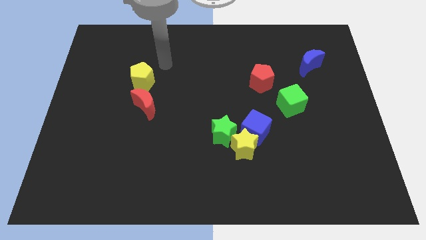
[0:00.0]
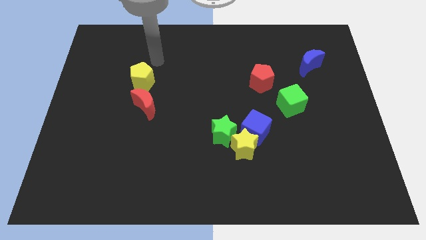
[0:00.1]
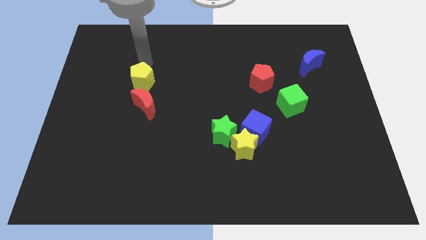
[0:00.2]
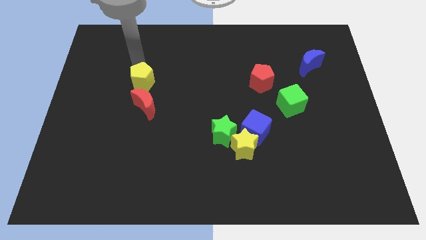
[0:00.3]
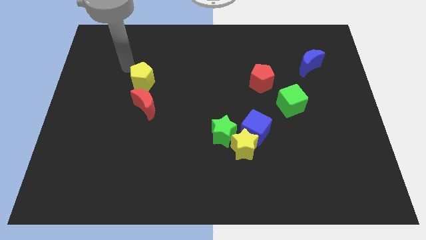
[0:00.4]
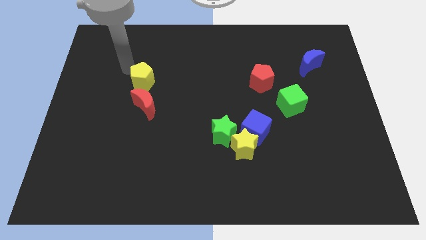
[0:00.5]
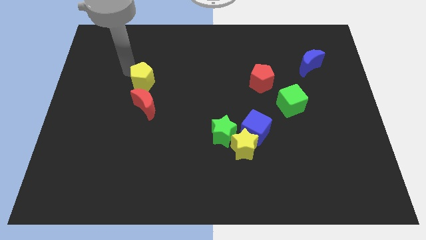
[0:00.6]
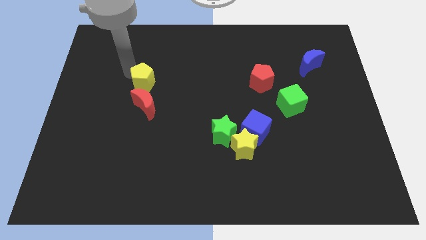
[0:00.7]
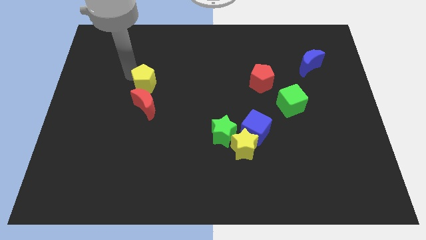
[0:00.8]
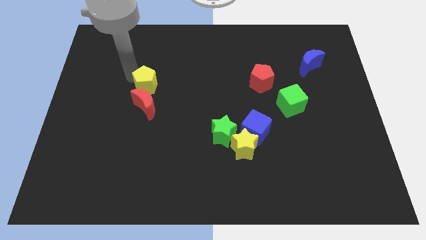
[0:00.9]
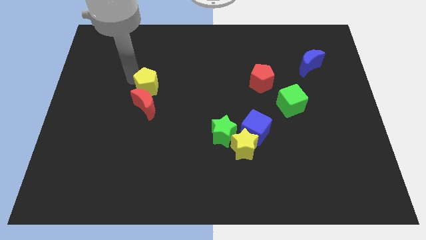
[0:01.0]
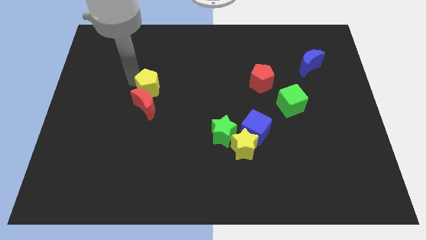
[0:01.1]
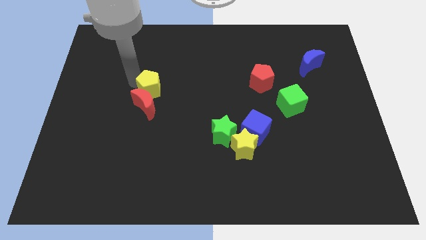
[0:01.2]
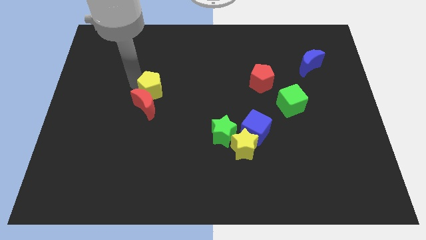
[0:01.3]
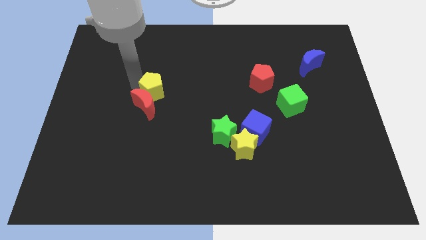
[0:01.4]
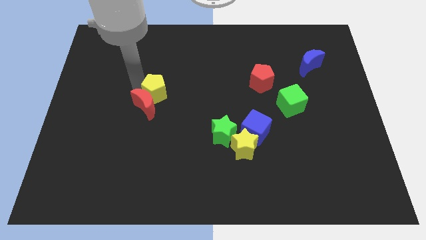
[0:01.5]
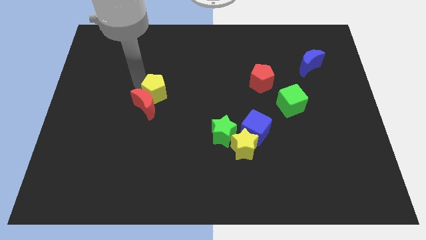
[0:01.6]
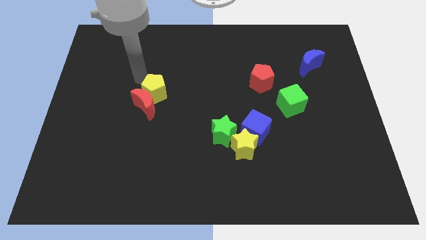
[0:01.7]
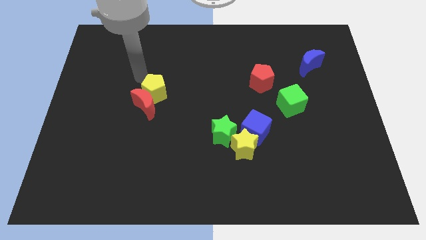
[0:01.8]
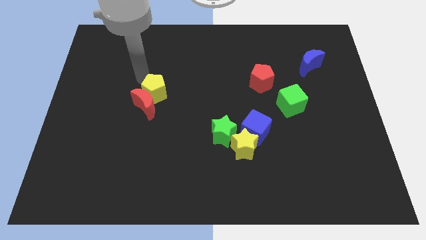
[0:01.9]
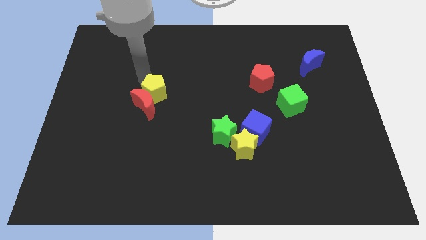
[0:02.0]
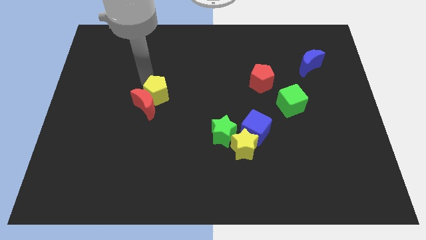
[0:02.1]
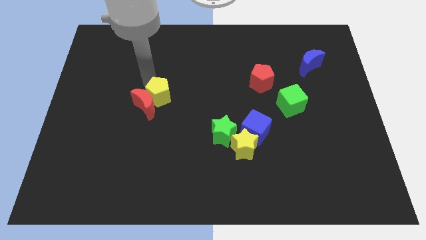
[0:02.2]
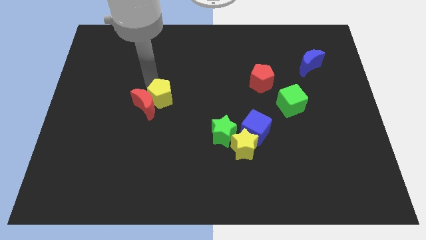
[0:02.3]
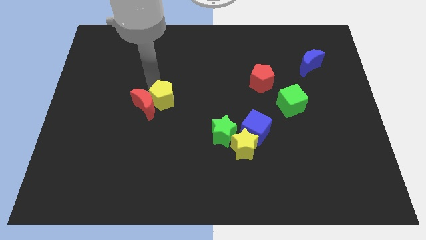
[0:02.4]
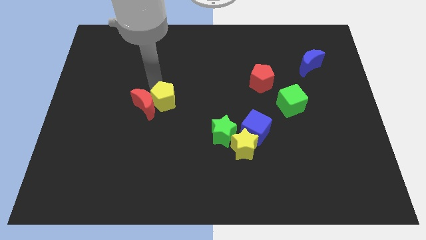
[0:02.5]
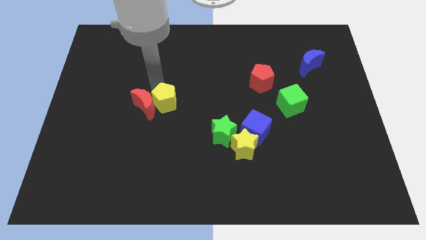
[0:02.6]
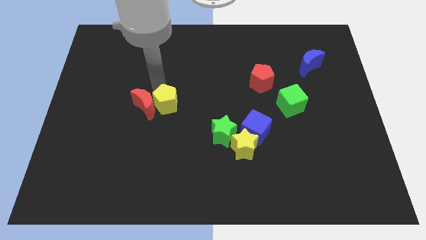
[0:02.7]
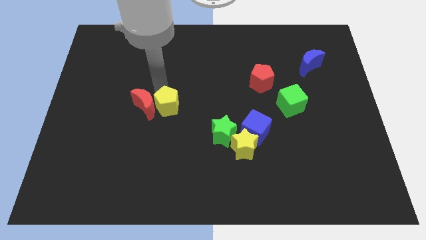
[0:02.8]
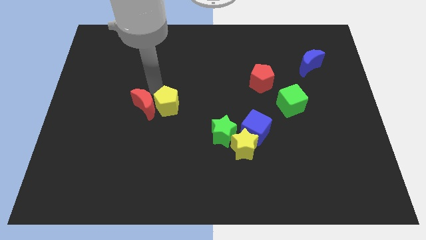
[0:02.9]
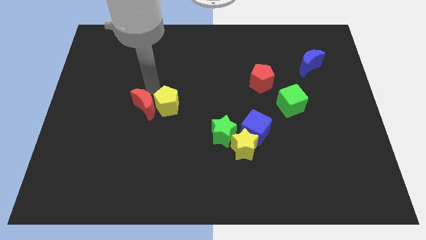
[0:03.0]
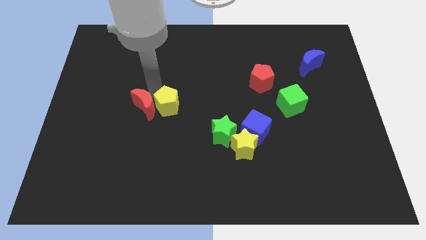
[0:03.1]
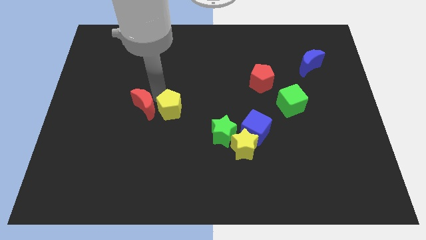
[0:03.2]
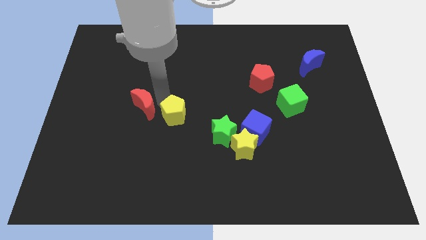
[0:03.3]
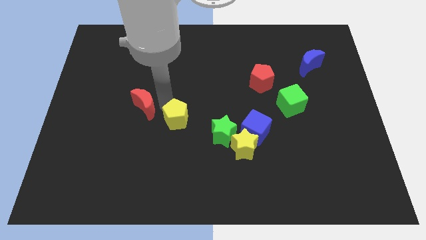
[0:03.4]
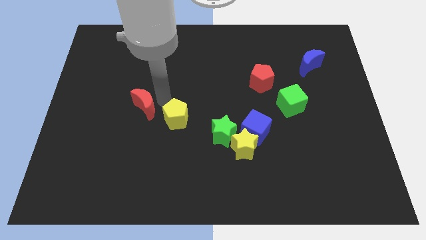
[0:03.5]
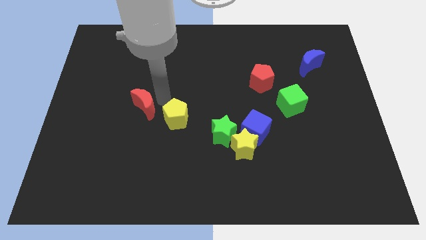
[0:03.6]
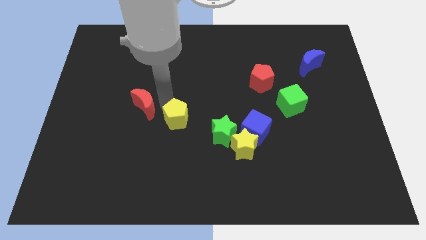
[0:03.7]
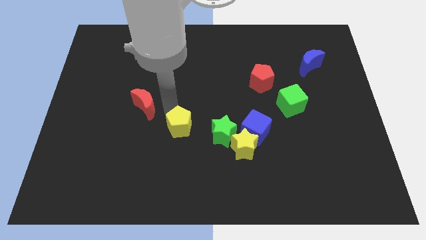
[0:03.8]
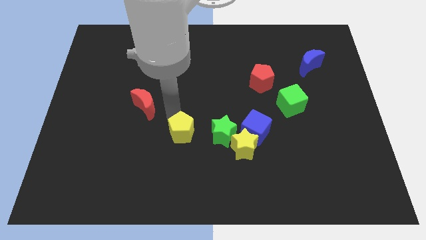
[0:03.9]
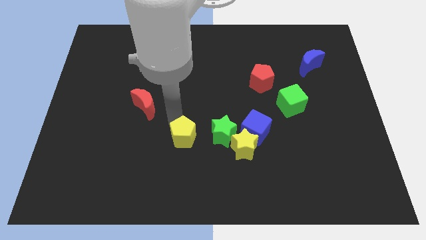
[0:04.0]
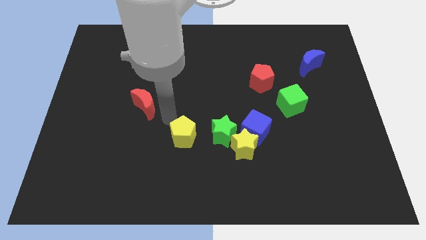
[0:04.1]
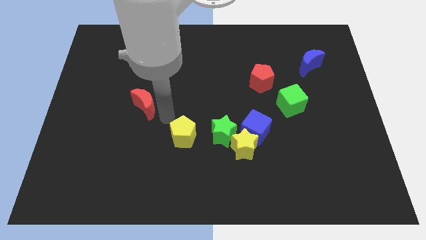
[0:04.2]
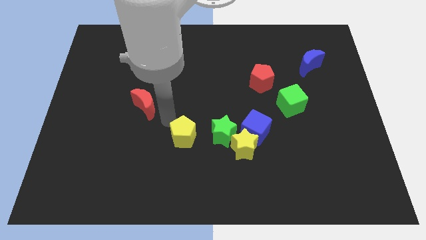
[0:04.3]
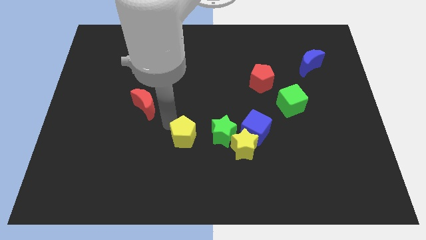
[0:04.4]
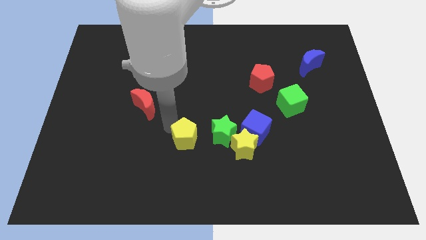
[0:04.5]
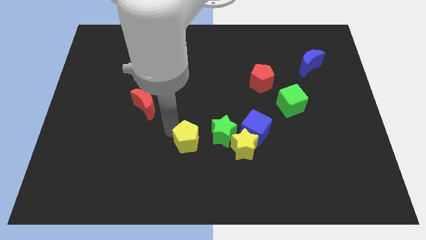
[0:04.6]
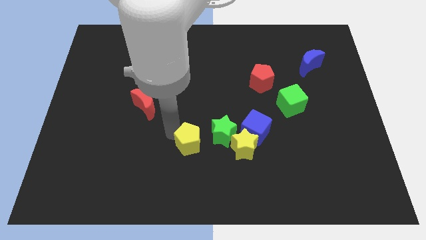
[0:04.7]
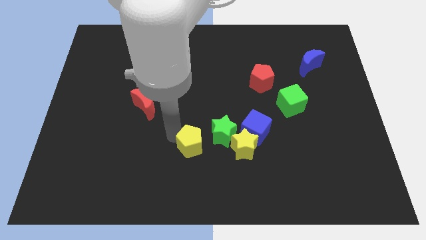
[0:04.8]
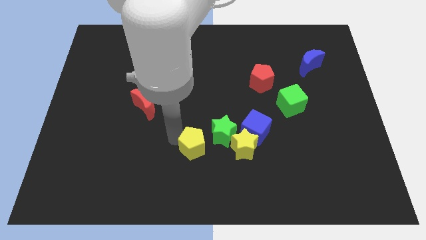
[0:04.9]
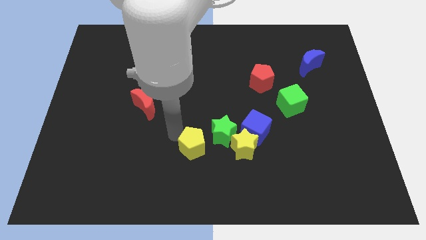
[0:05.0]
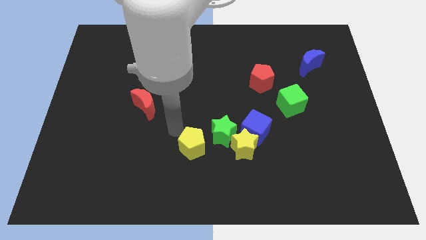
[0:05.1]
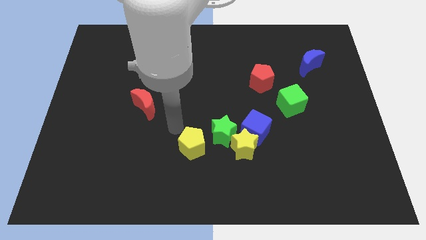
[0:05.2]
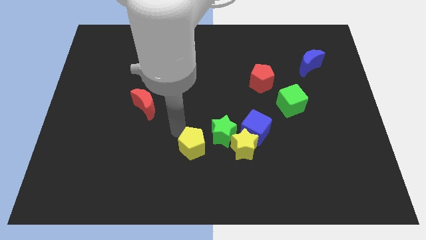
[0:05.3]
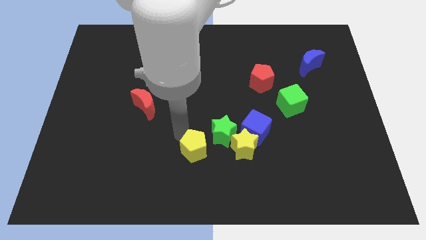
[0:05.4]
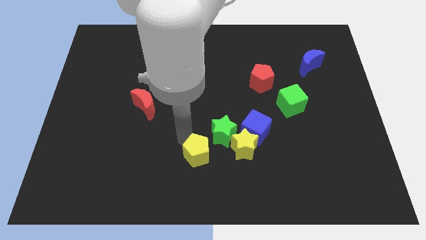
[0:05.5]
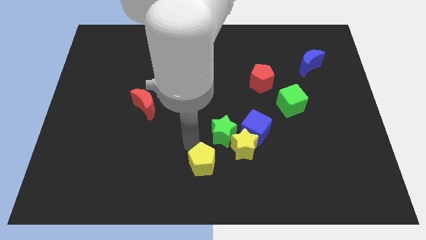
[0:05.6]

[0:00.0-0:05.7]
slide the yellow pentagon to the bottom

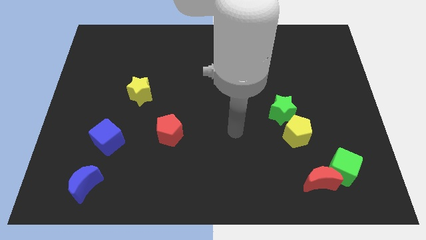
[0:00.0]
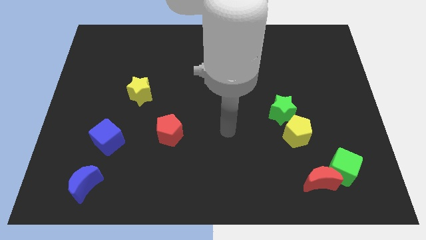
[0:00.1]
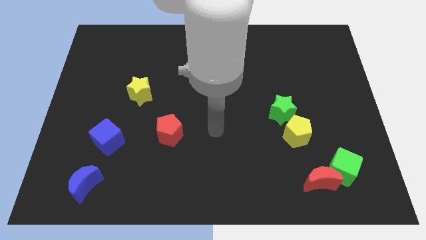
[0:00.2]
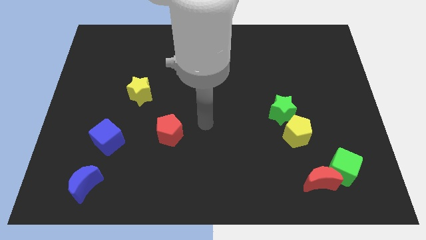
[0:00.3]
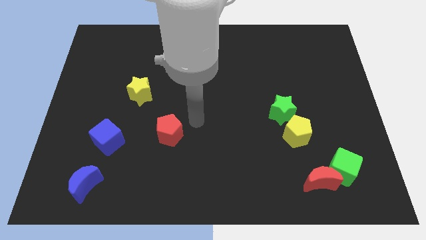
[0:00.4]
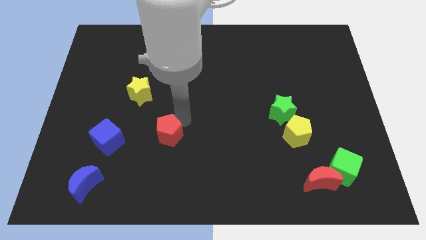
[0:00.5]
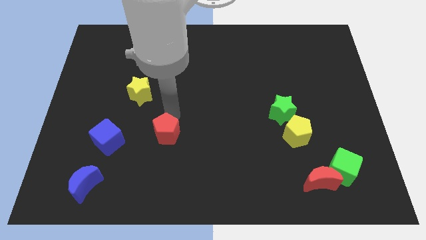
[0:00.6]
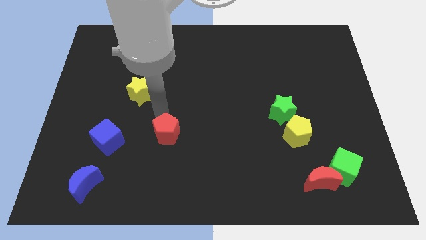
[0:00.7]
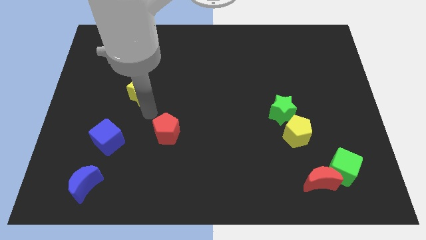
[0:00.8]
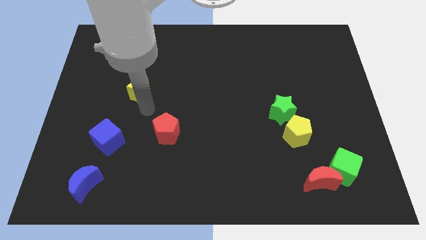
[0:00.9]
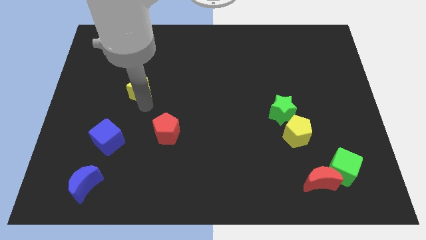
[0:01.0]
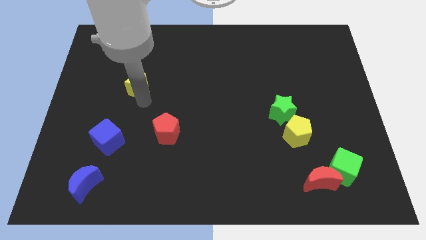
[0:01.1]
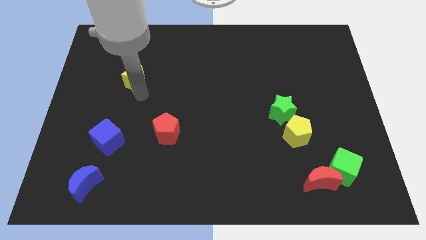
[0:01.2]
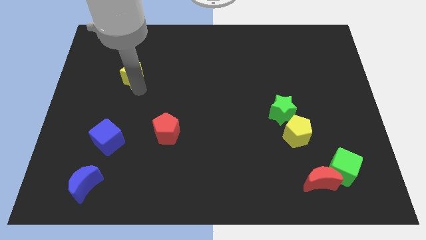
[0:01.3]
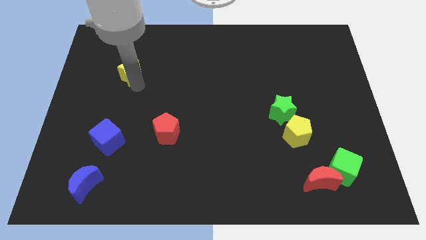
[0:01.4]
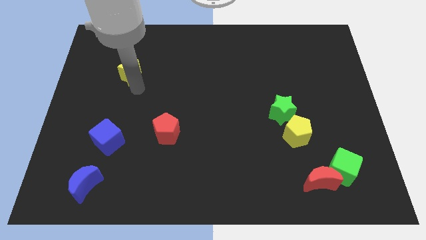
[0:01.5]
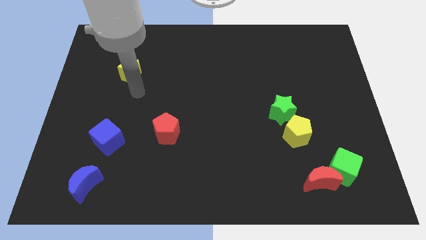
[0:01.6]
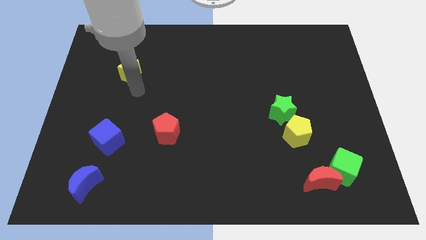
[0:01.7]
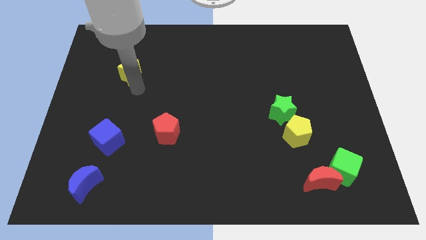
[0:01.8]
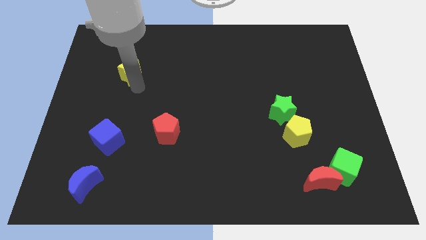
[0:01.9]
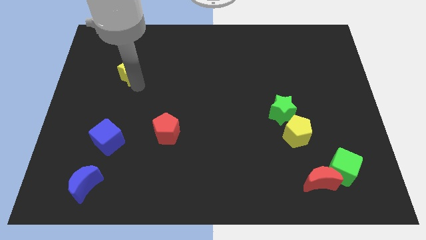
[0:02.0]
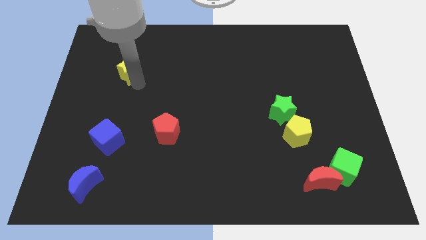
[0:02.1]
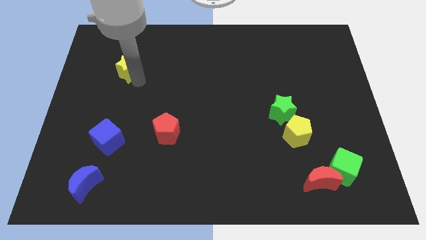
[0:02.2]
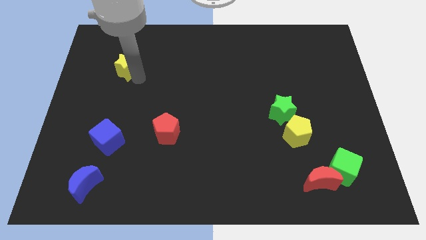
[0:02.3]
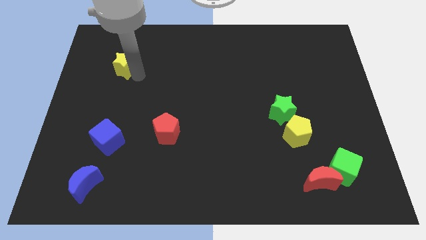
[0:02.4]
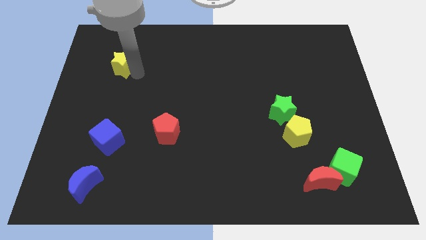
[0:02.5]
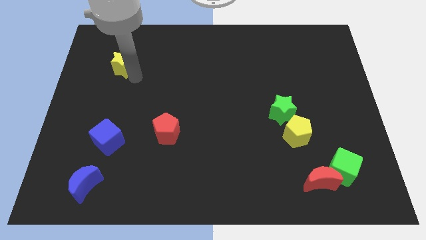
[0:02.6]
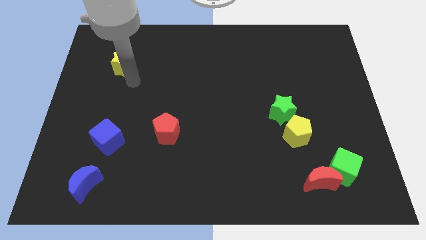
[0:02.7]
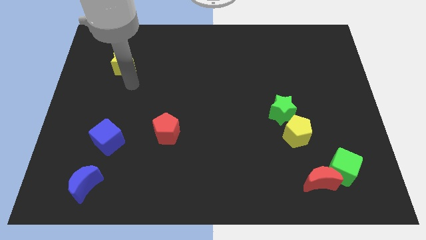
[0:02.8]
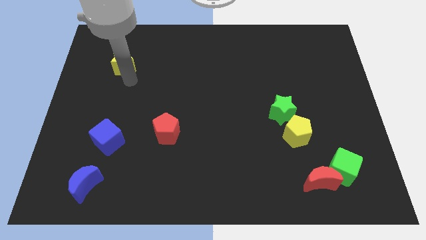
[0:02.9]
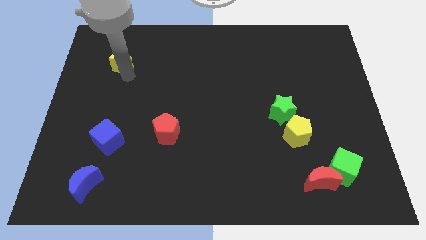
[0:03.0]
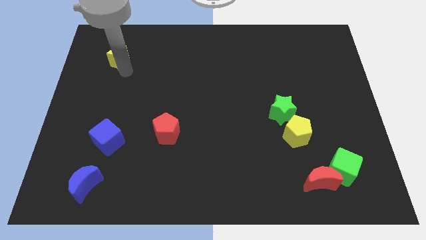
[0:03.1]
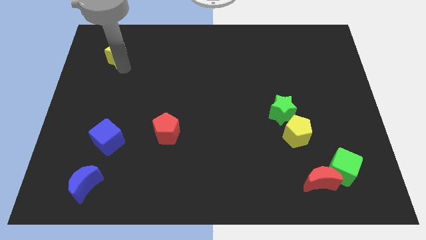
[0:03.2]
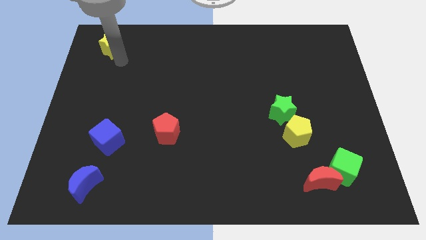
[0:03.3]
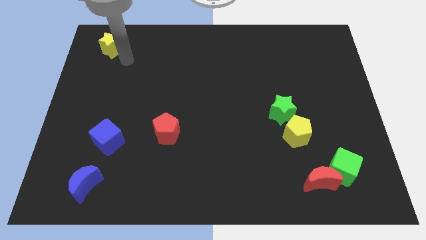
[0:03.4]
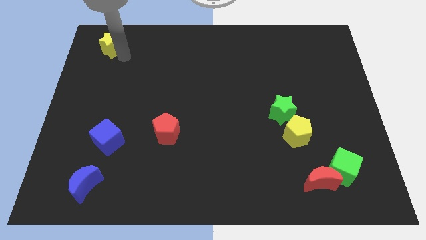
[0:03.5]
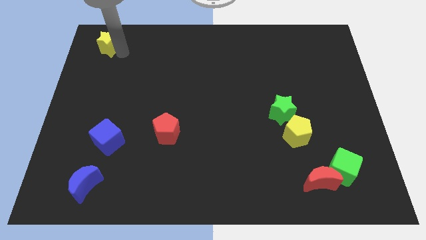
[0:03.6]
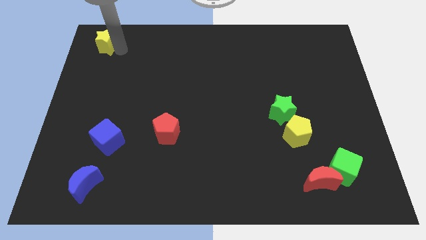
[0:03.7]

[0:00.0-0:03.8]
put the yellow star to the top left of the board
